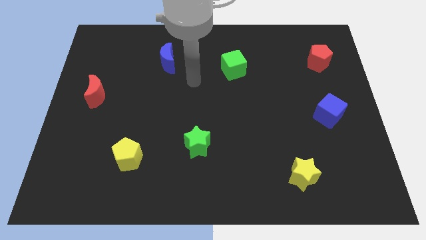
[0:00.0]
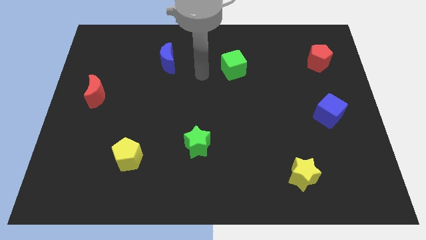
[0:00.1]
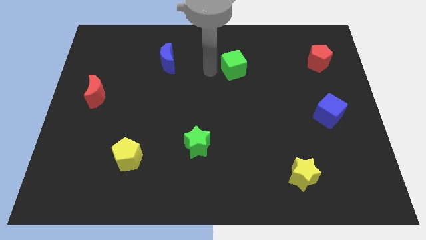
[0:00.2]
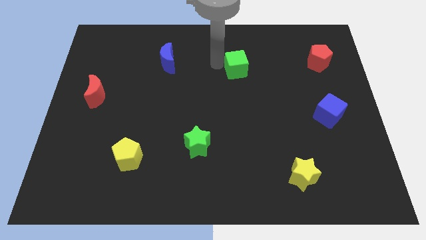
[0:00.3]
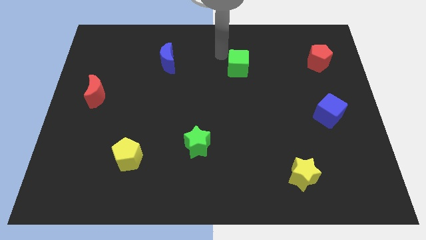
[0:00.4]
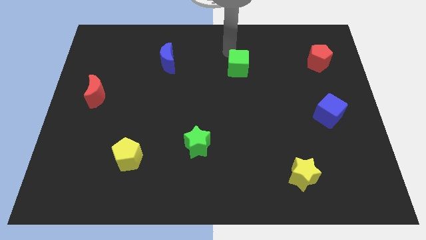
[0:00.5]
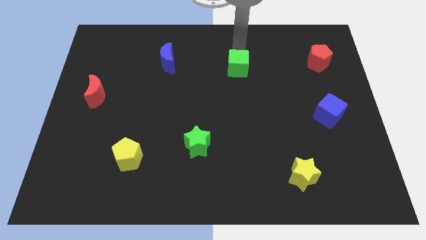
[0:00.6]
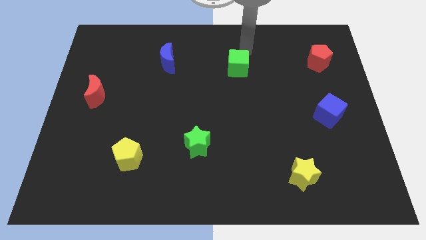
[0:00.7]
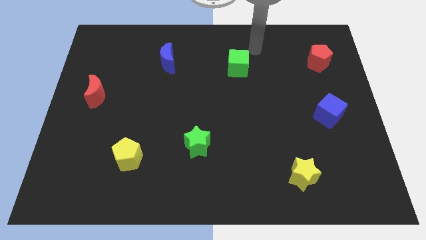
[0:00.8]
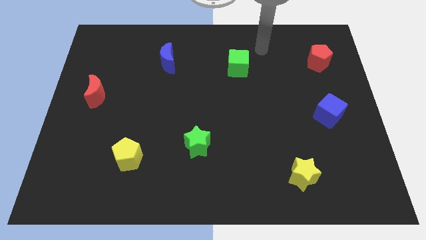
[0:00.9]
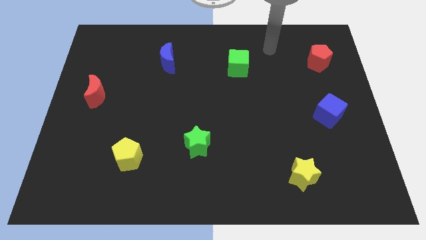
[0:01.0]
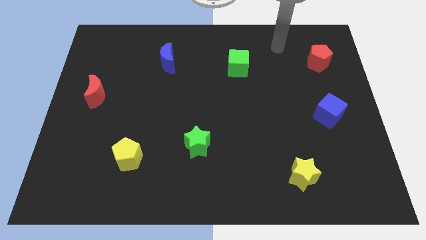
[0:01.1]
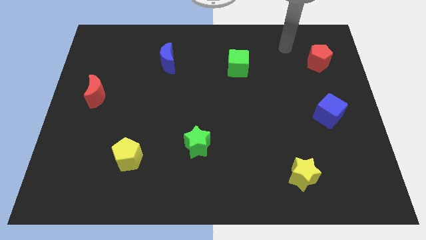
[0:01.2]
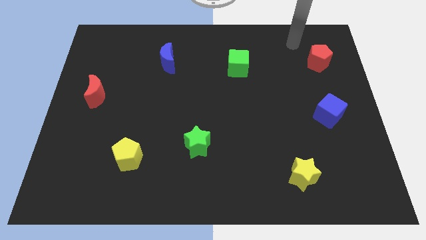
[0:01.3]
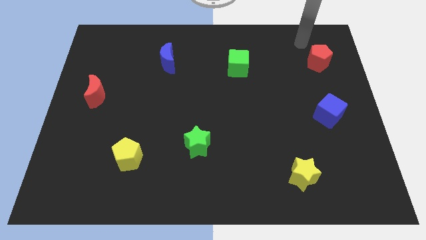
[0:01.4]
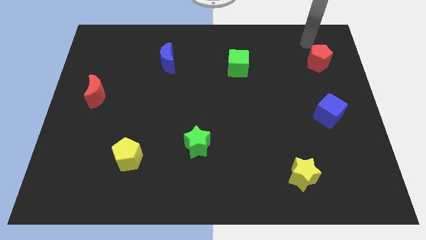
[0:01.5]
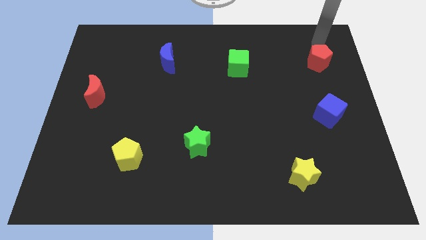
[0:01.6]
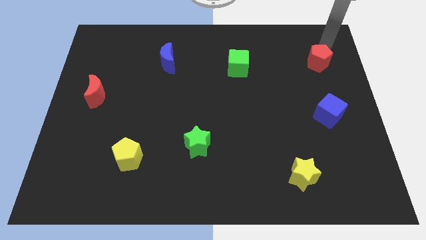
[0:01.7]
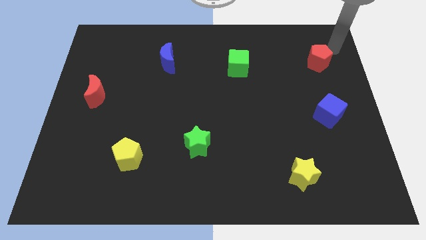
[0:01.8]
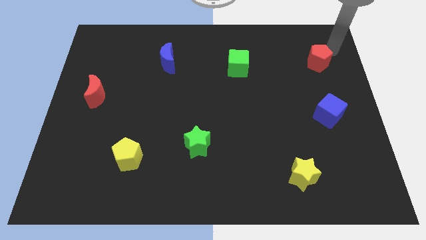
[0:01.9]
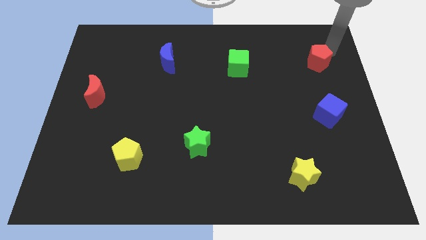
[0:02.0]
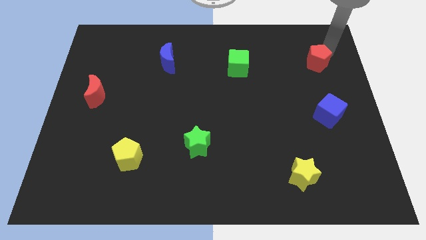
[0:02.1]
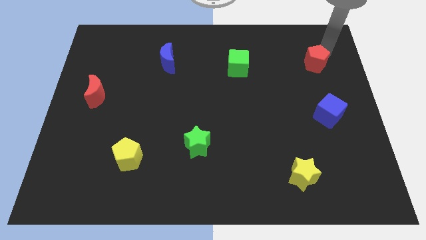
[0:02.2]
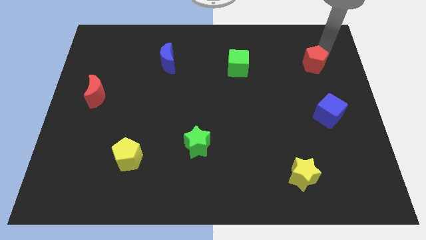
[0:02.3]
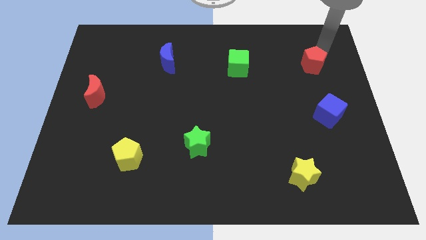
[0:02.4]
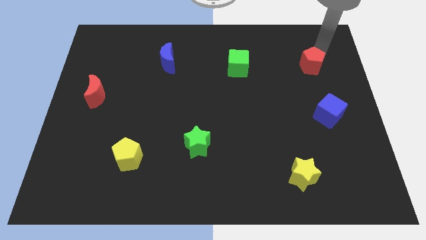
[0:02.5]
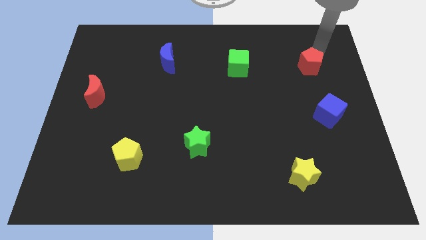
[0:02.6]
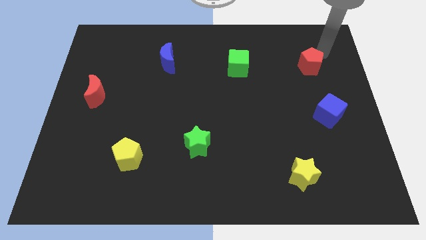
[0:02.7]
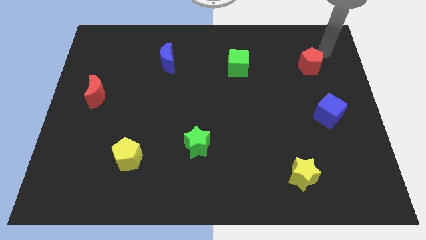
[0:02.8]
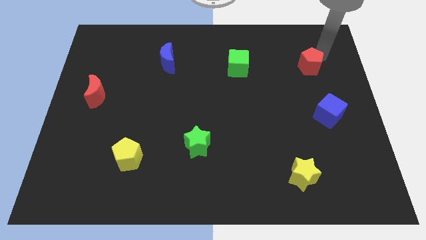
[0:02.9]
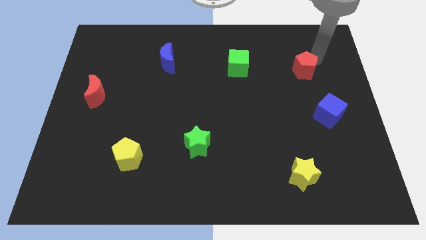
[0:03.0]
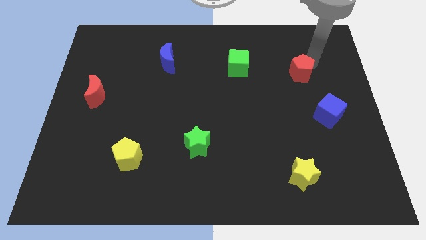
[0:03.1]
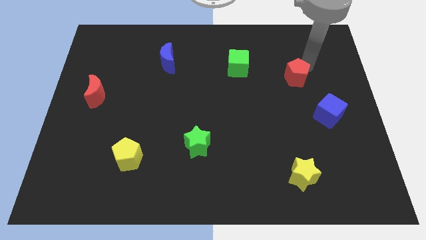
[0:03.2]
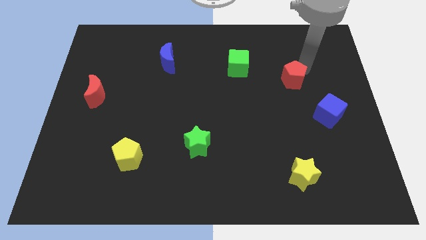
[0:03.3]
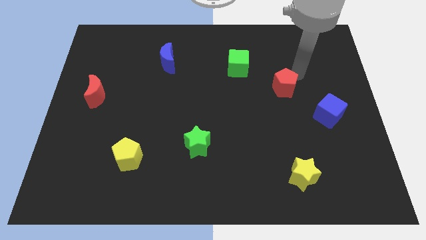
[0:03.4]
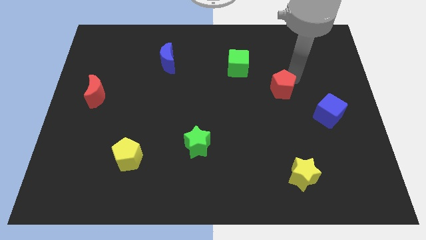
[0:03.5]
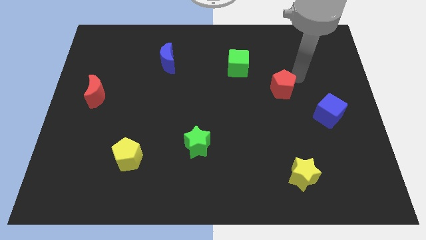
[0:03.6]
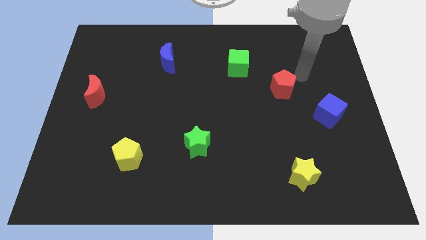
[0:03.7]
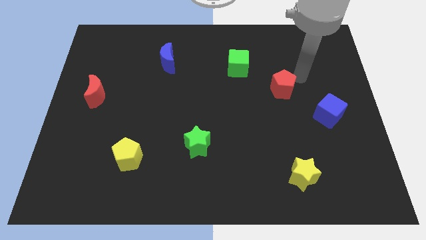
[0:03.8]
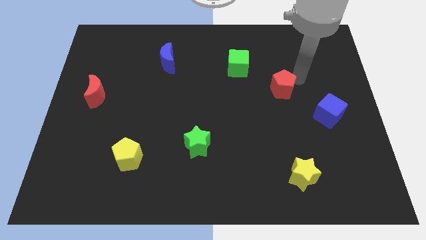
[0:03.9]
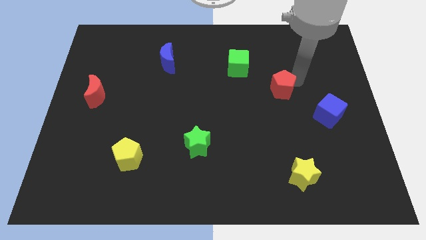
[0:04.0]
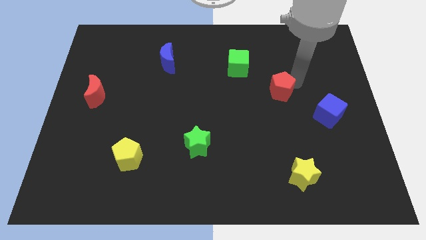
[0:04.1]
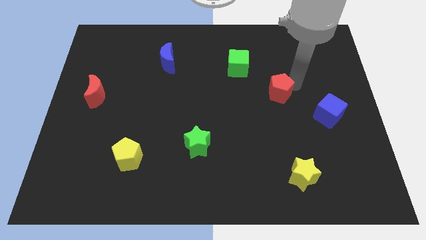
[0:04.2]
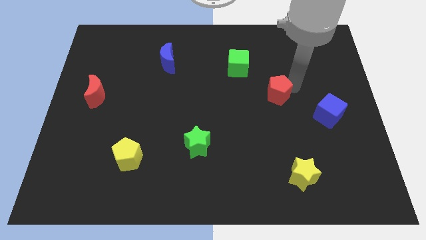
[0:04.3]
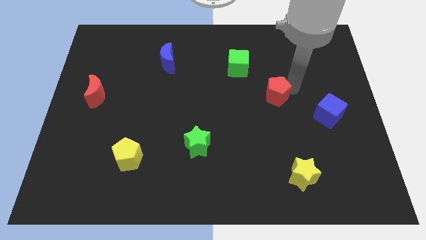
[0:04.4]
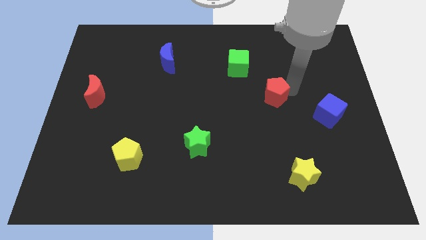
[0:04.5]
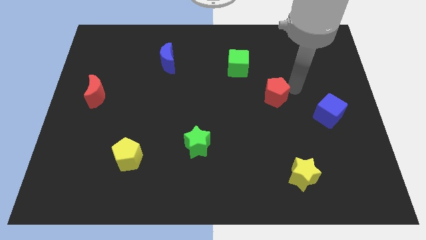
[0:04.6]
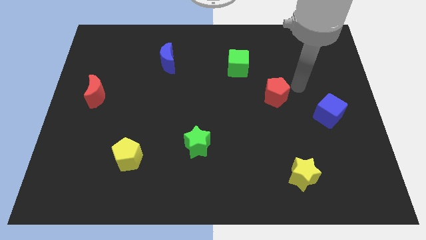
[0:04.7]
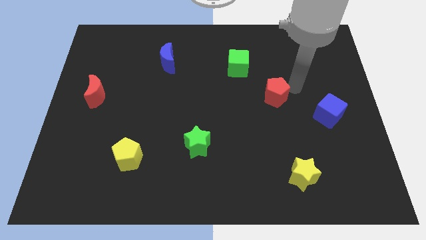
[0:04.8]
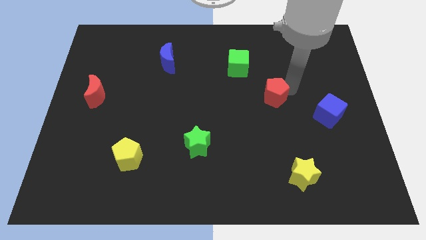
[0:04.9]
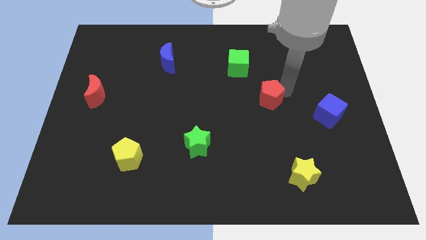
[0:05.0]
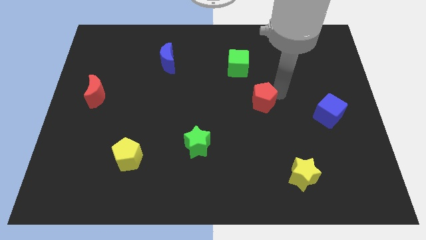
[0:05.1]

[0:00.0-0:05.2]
push the red pentagon downwards and left diagonally

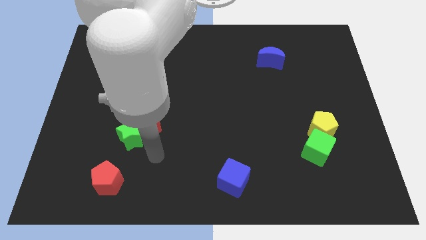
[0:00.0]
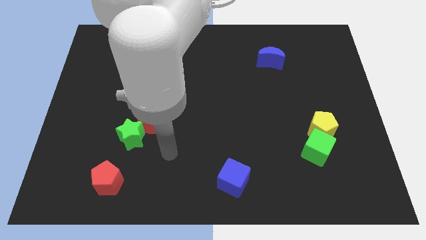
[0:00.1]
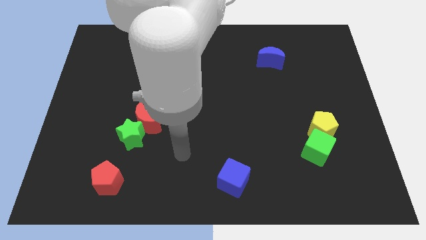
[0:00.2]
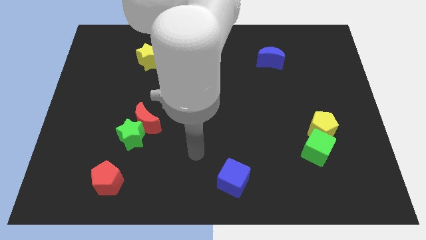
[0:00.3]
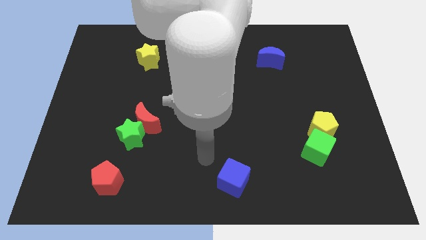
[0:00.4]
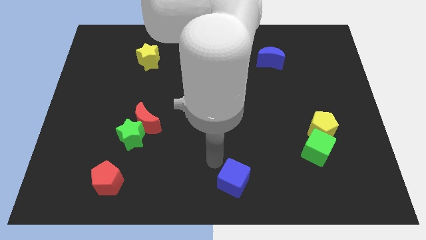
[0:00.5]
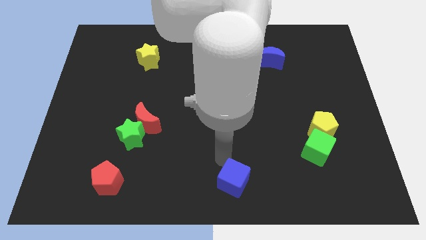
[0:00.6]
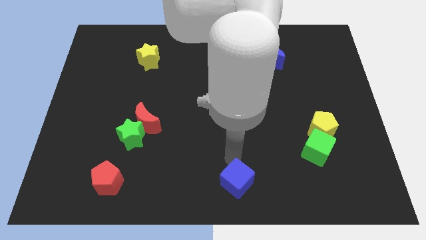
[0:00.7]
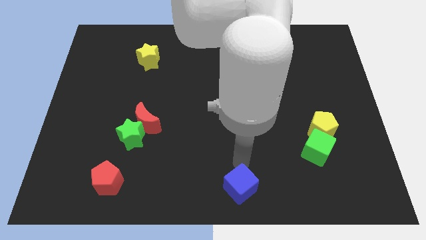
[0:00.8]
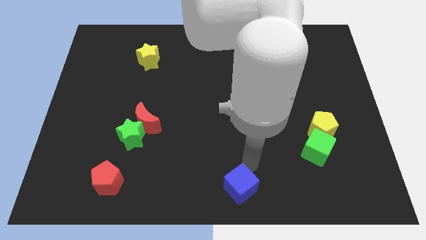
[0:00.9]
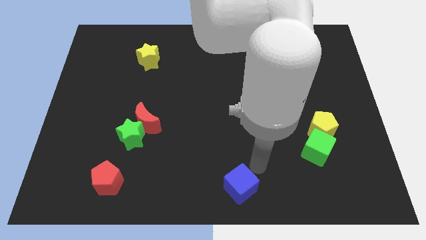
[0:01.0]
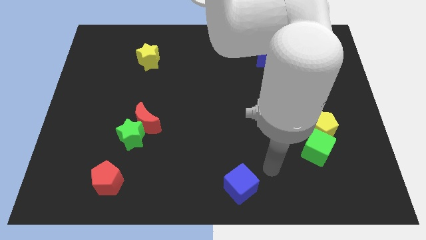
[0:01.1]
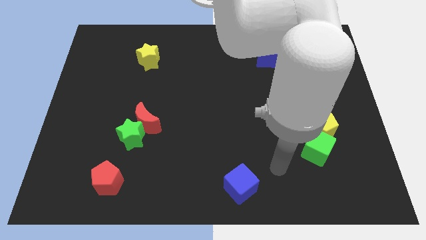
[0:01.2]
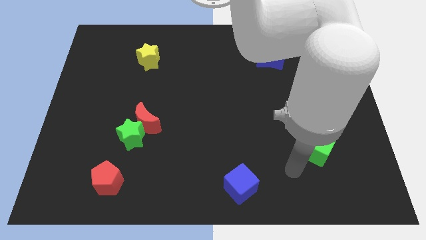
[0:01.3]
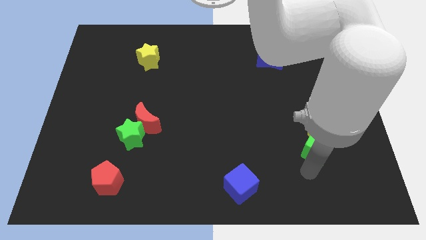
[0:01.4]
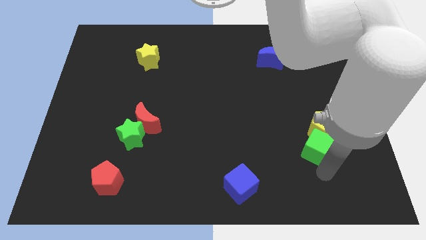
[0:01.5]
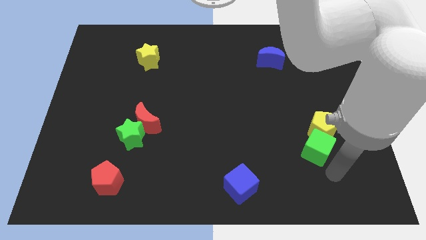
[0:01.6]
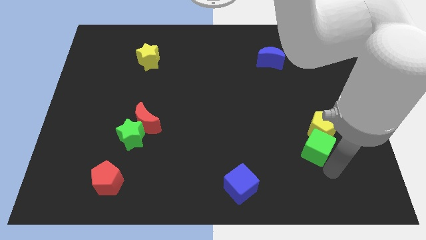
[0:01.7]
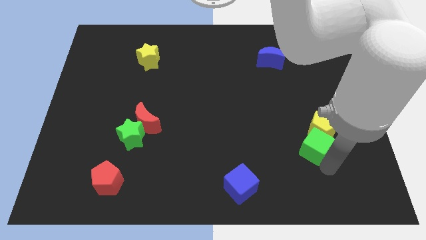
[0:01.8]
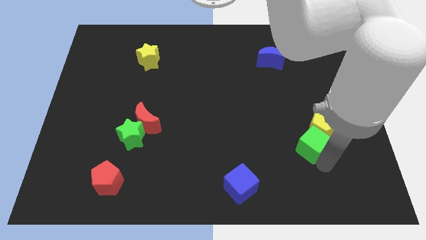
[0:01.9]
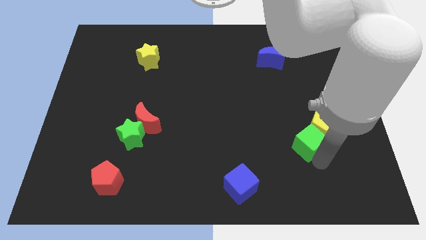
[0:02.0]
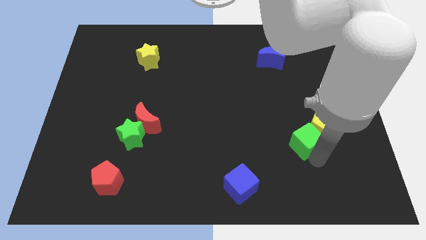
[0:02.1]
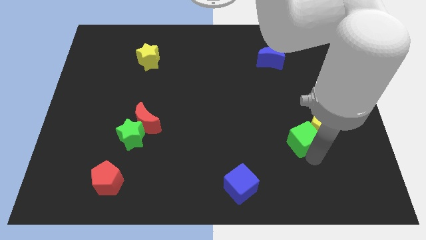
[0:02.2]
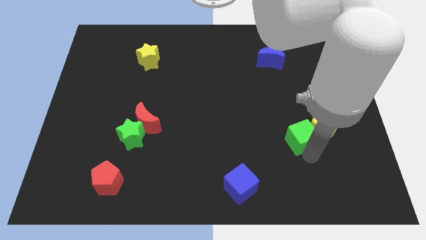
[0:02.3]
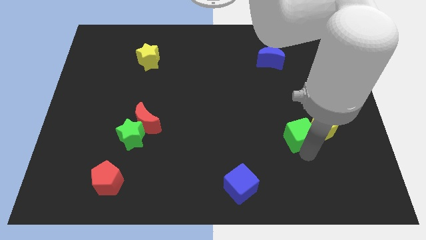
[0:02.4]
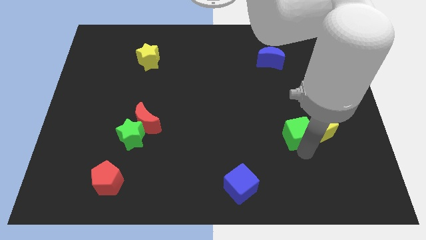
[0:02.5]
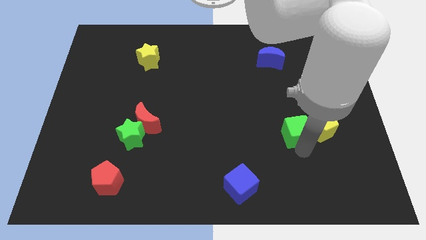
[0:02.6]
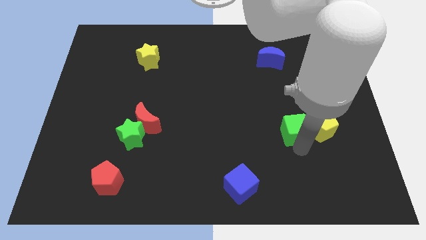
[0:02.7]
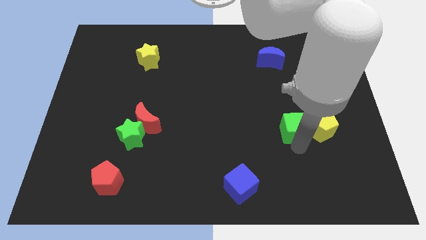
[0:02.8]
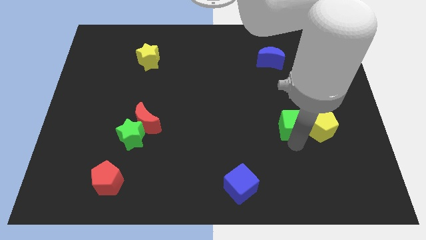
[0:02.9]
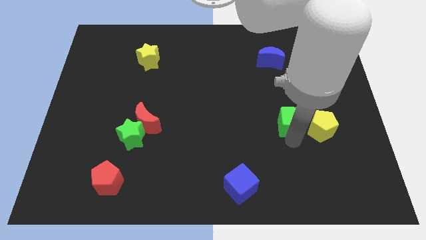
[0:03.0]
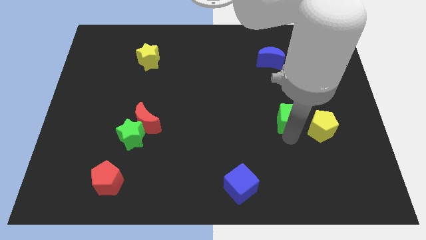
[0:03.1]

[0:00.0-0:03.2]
slightly push the green cube up
